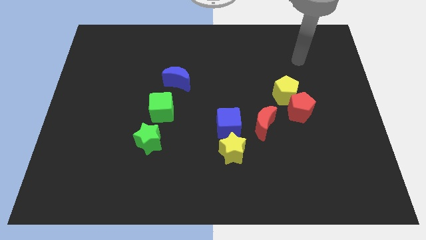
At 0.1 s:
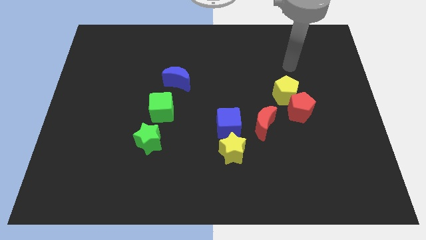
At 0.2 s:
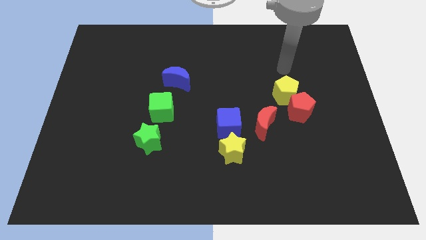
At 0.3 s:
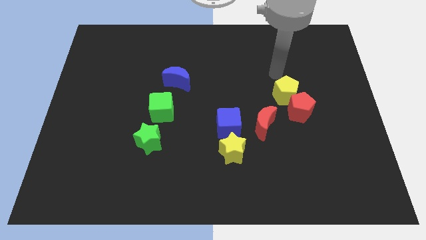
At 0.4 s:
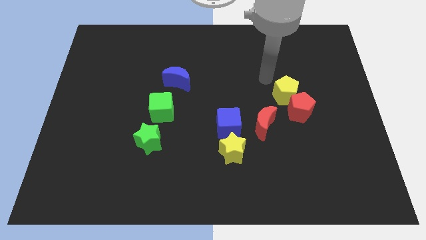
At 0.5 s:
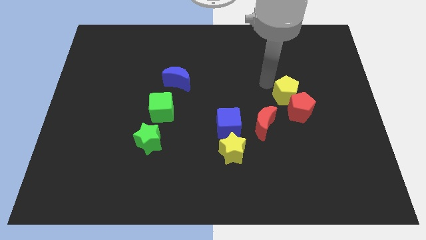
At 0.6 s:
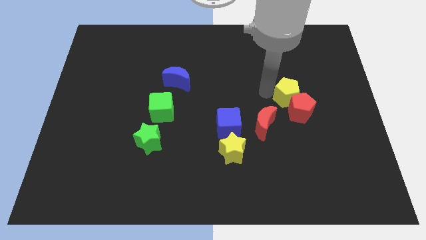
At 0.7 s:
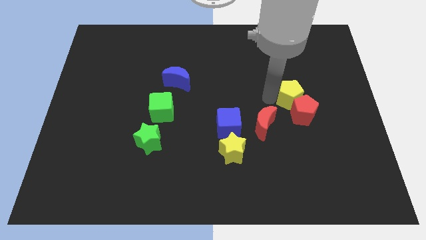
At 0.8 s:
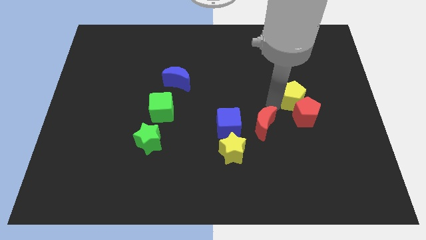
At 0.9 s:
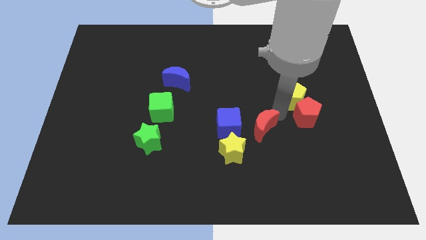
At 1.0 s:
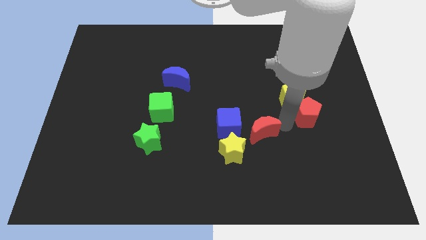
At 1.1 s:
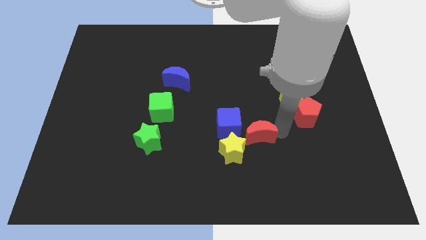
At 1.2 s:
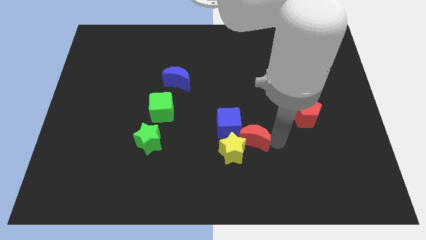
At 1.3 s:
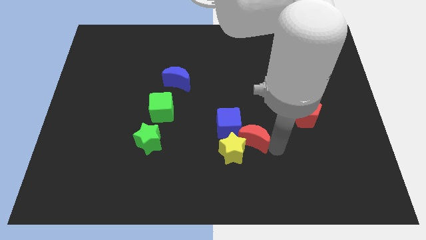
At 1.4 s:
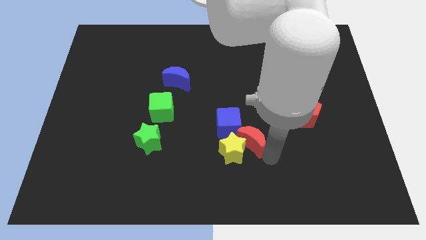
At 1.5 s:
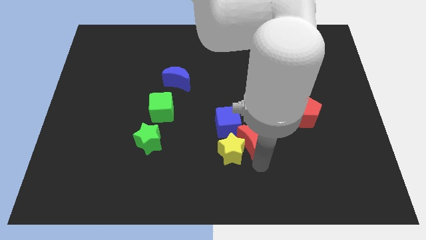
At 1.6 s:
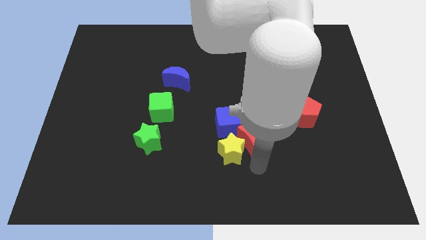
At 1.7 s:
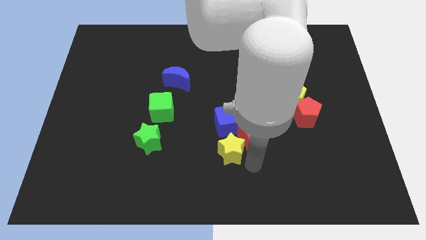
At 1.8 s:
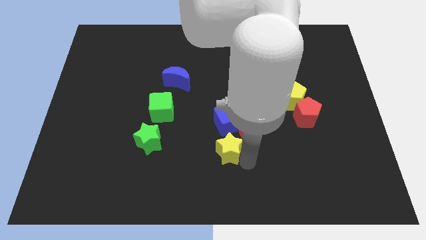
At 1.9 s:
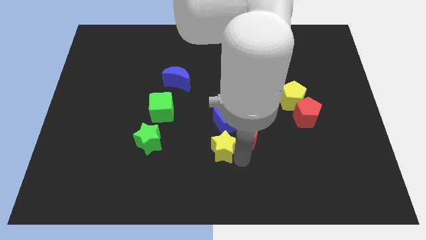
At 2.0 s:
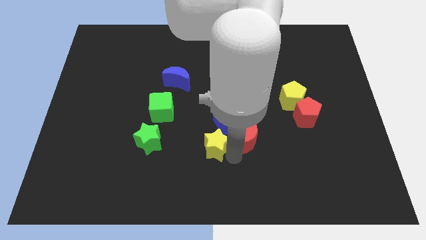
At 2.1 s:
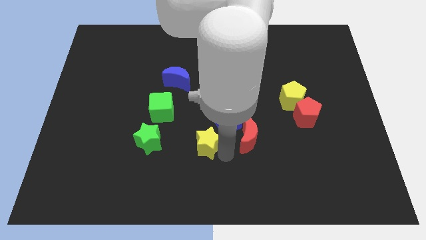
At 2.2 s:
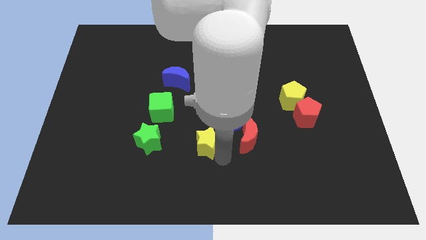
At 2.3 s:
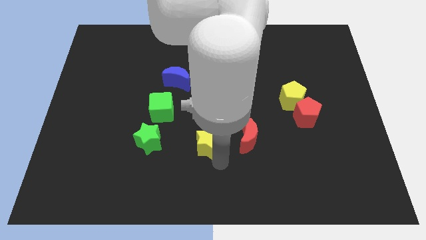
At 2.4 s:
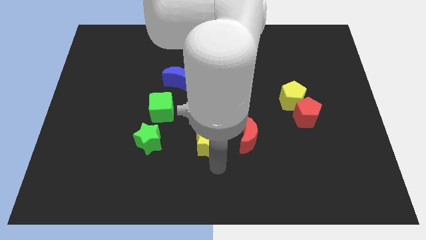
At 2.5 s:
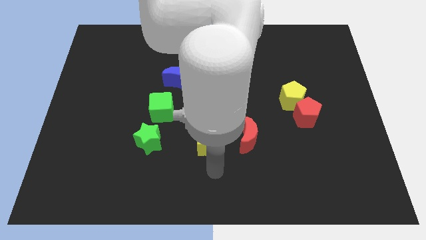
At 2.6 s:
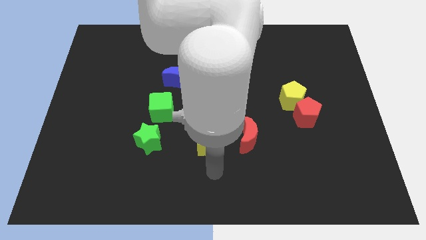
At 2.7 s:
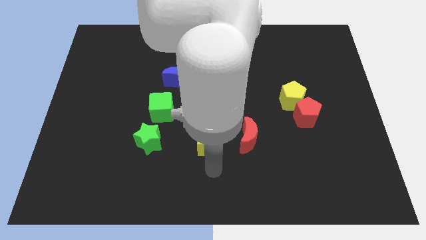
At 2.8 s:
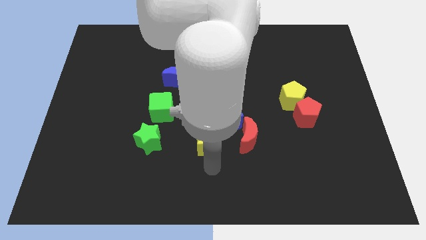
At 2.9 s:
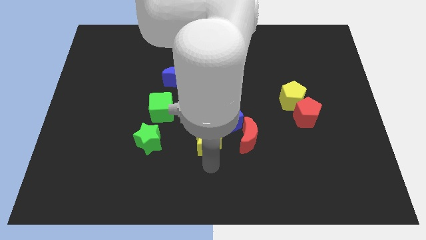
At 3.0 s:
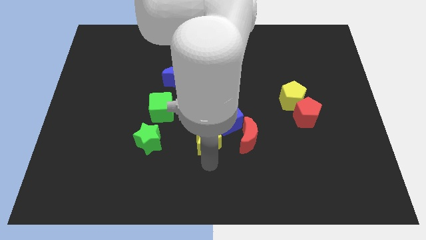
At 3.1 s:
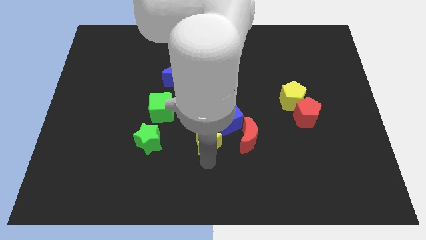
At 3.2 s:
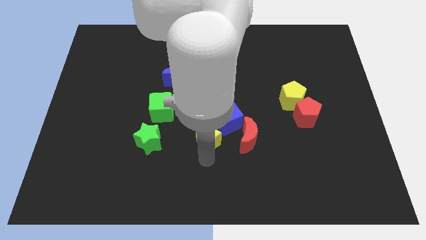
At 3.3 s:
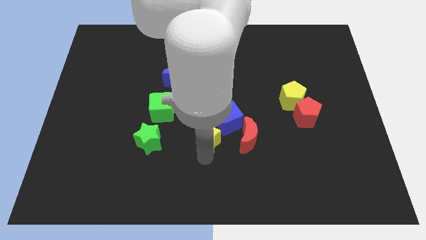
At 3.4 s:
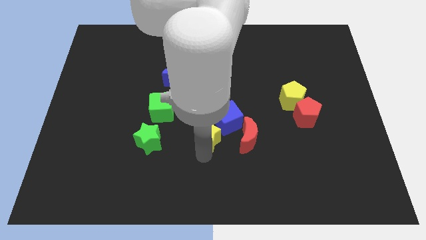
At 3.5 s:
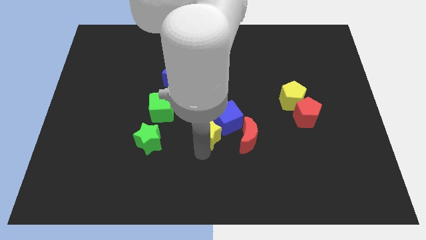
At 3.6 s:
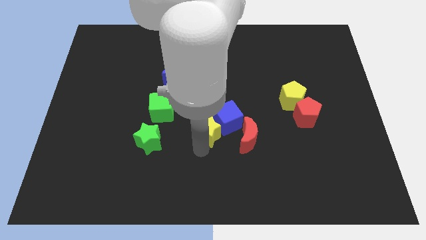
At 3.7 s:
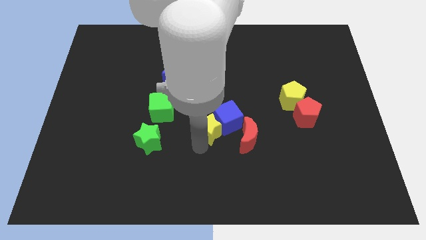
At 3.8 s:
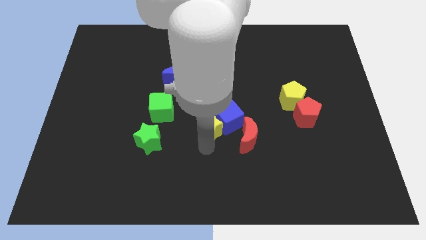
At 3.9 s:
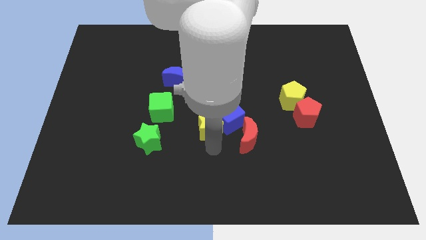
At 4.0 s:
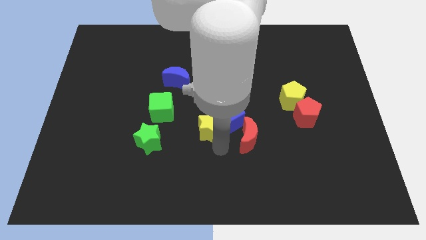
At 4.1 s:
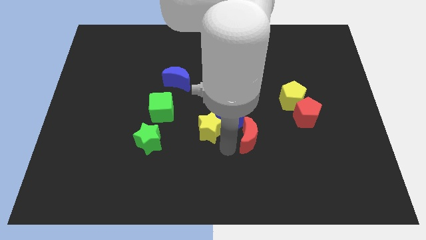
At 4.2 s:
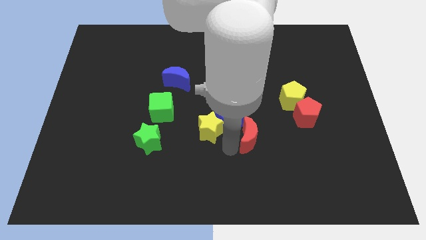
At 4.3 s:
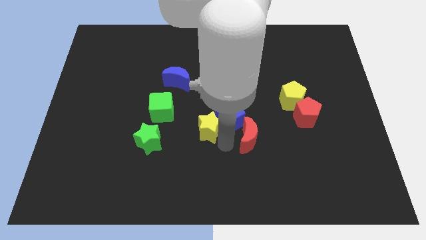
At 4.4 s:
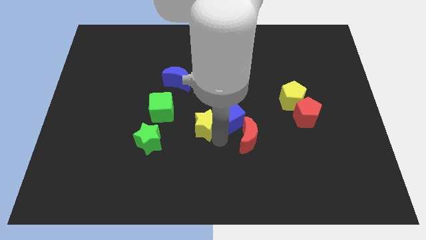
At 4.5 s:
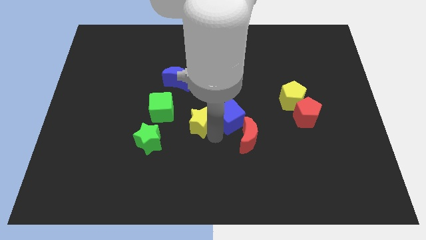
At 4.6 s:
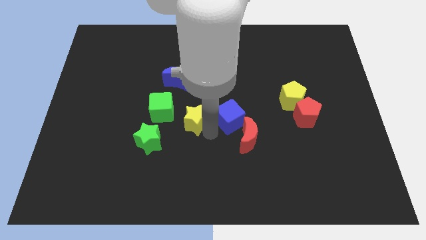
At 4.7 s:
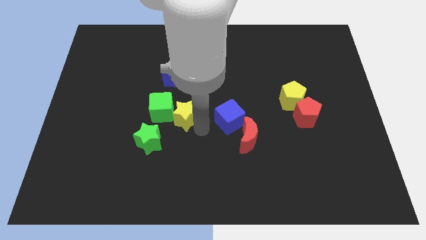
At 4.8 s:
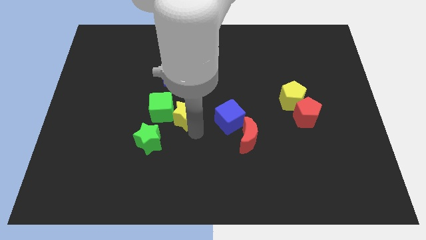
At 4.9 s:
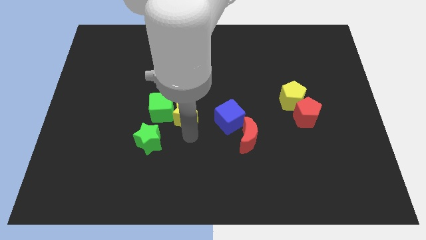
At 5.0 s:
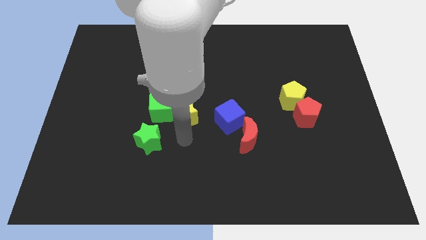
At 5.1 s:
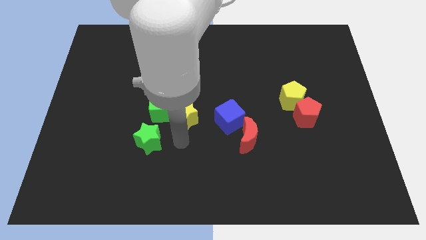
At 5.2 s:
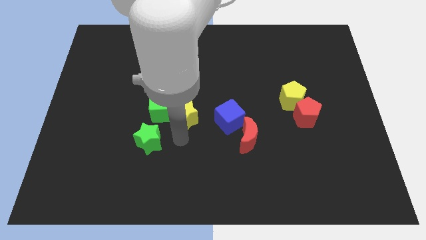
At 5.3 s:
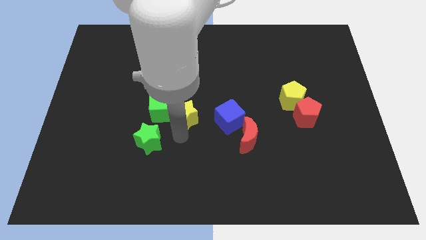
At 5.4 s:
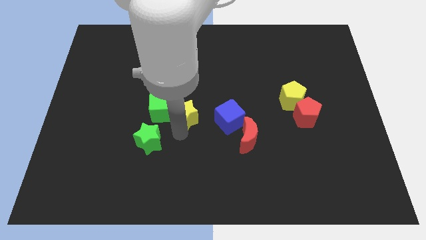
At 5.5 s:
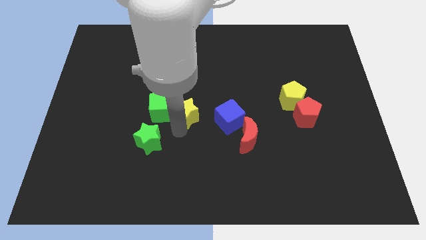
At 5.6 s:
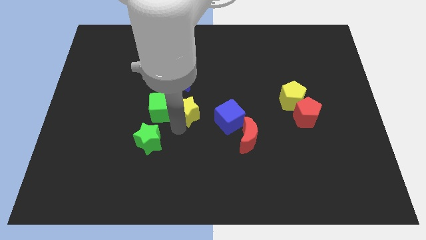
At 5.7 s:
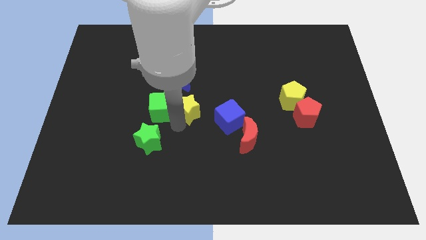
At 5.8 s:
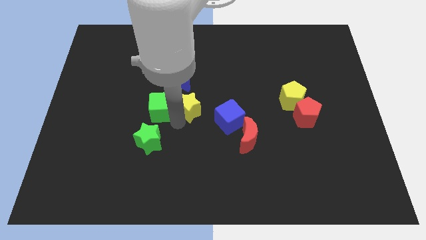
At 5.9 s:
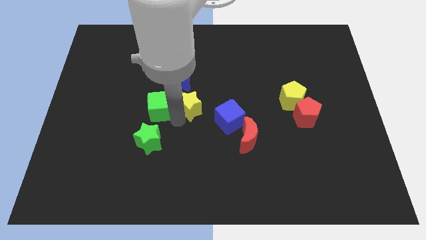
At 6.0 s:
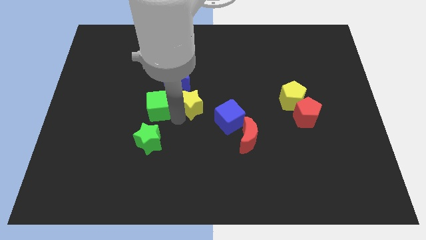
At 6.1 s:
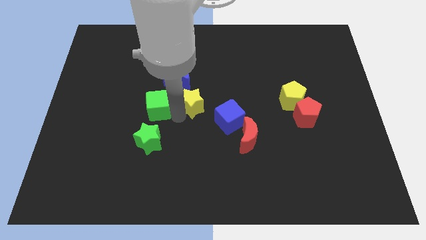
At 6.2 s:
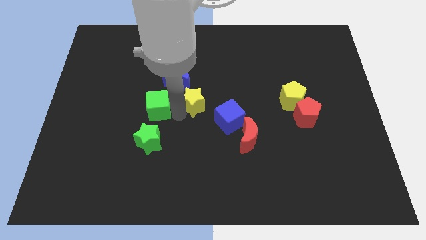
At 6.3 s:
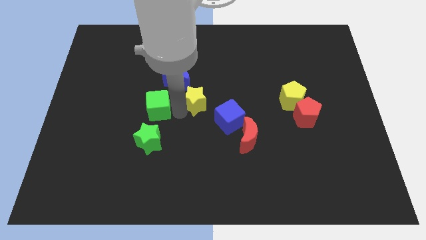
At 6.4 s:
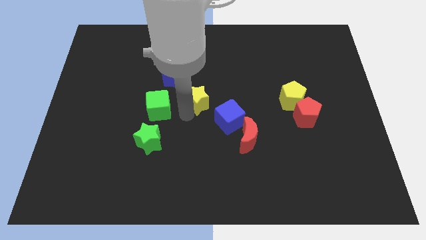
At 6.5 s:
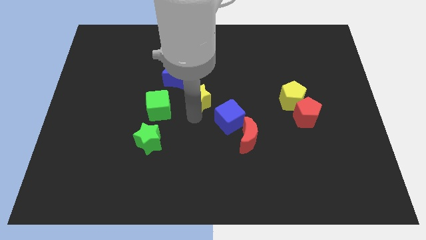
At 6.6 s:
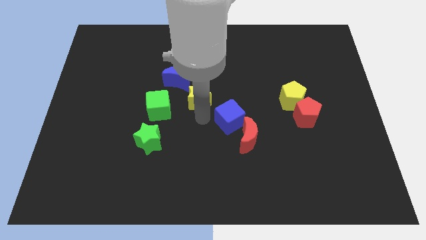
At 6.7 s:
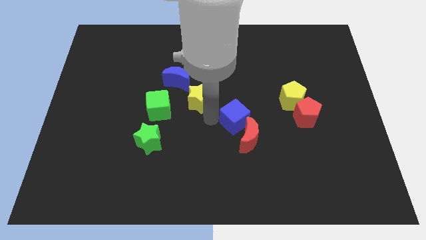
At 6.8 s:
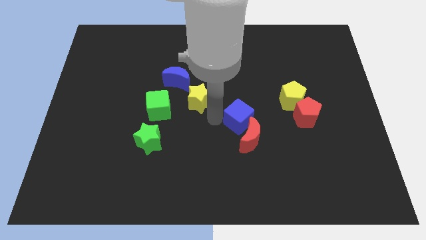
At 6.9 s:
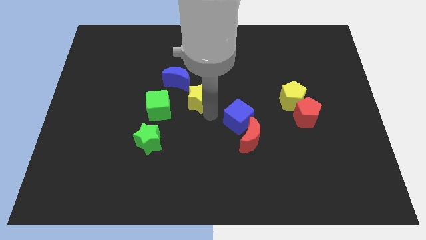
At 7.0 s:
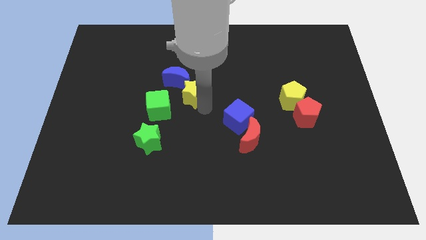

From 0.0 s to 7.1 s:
move the yellow star close to the blue moon

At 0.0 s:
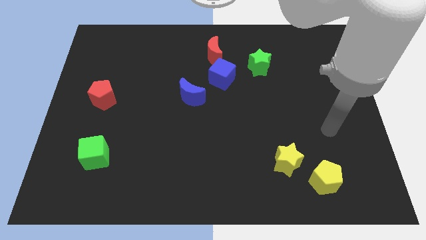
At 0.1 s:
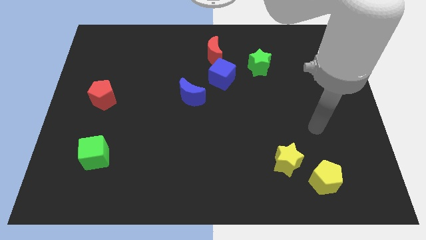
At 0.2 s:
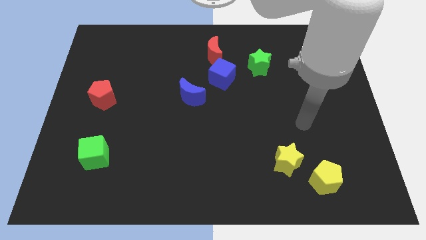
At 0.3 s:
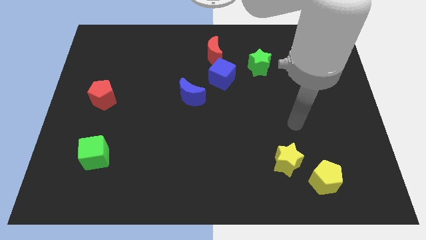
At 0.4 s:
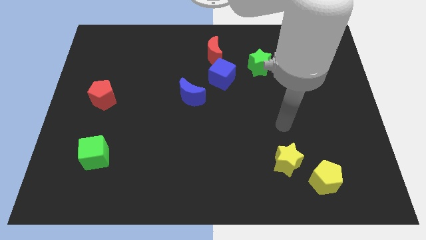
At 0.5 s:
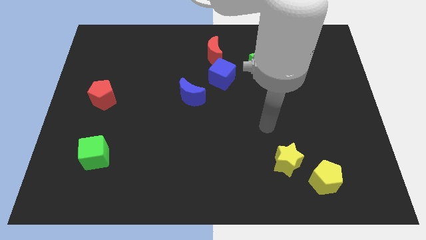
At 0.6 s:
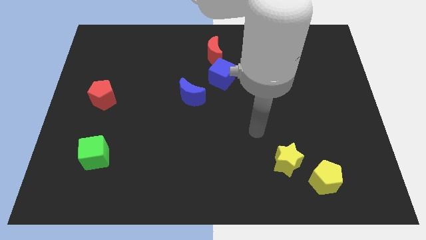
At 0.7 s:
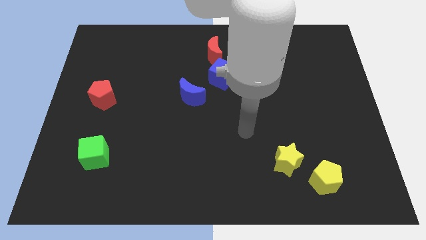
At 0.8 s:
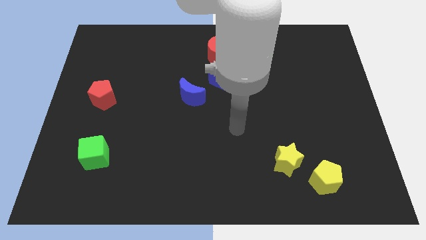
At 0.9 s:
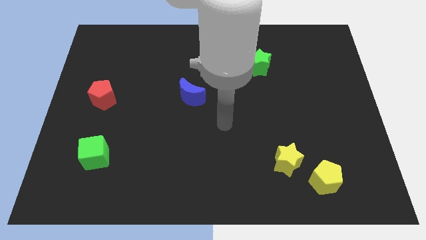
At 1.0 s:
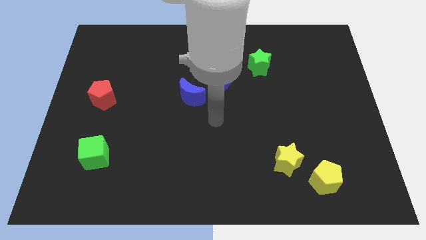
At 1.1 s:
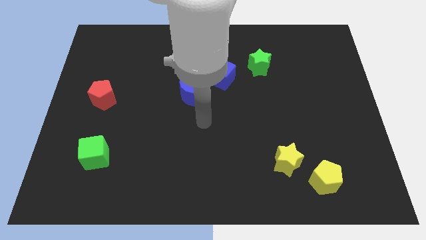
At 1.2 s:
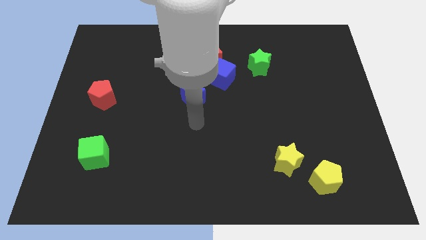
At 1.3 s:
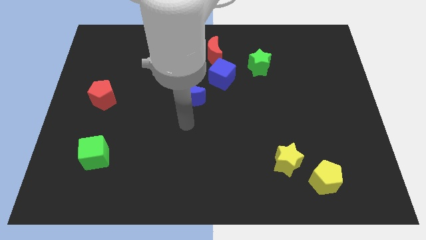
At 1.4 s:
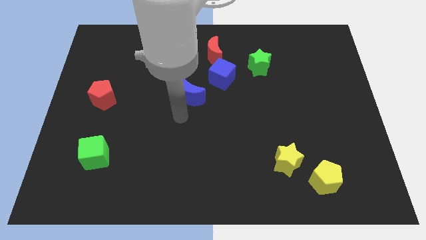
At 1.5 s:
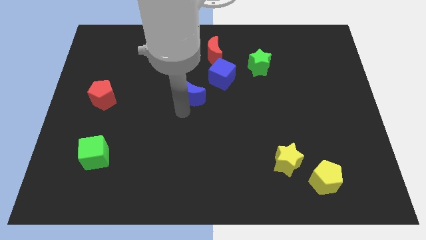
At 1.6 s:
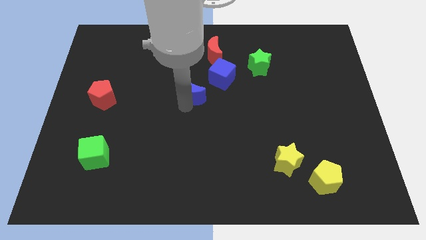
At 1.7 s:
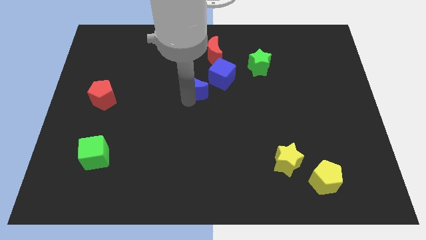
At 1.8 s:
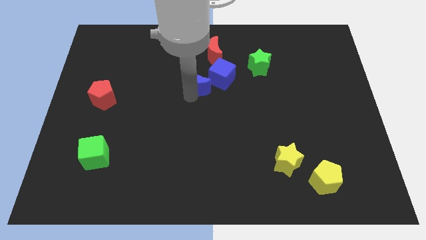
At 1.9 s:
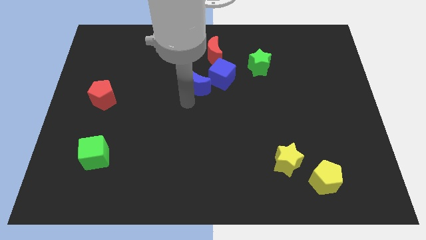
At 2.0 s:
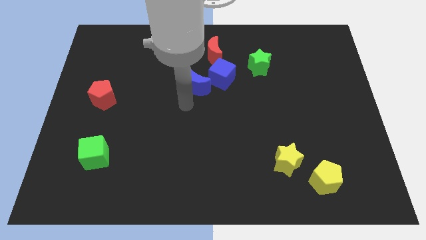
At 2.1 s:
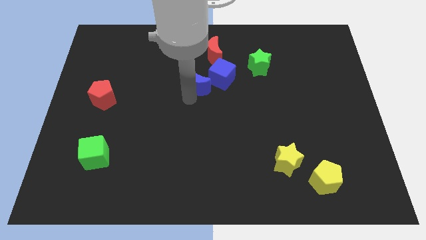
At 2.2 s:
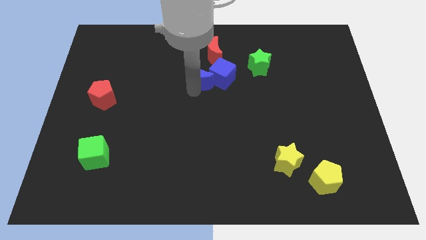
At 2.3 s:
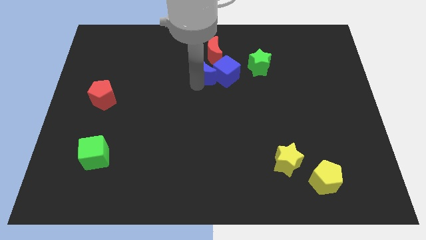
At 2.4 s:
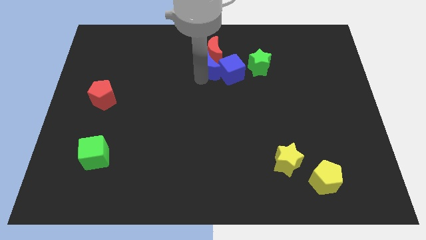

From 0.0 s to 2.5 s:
slide the blue moon close to the red moon
